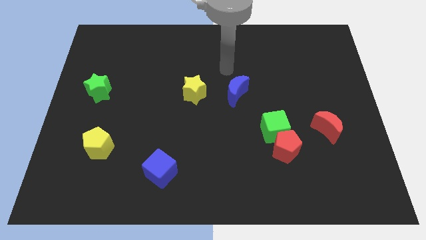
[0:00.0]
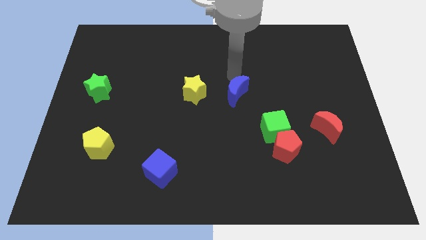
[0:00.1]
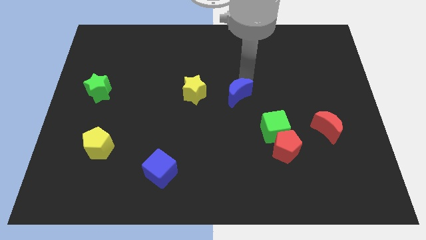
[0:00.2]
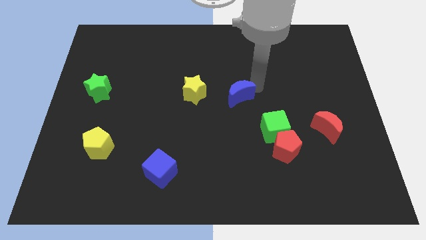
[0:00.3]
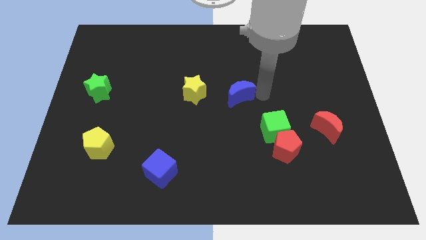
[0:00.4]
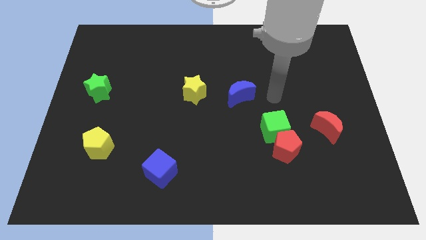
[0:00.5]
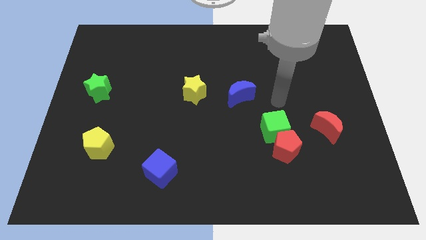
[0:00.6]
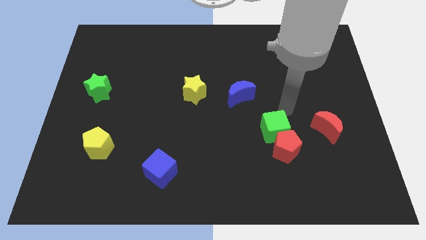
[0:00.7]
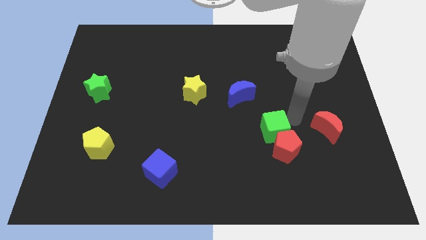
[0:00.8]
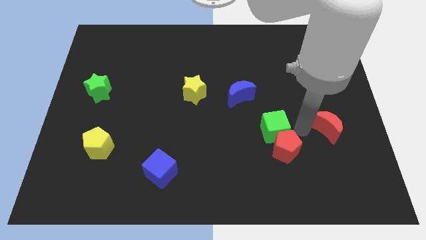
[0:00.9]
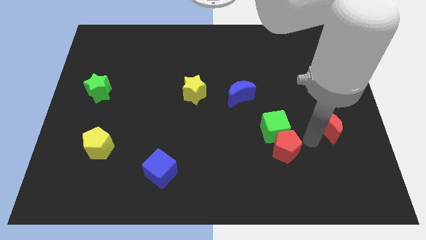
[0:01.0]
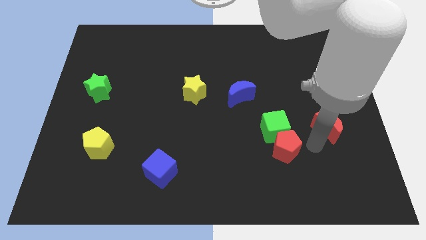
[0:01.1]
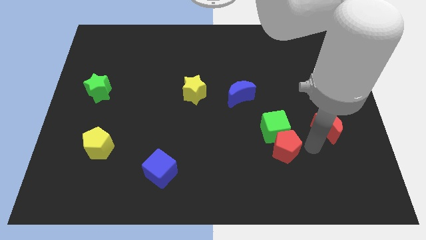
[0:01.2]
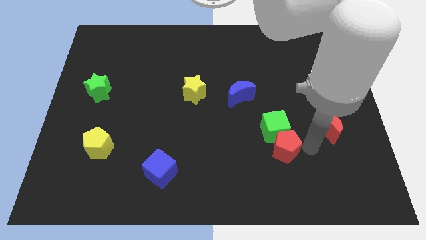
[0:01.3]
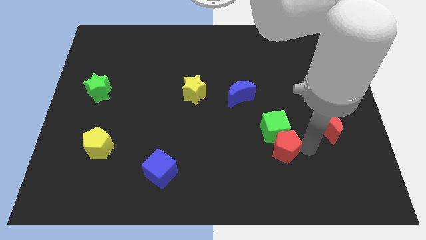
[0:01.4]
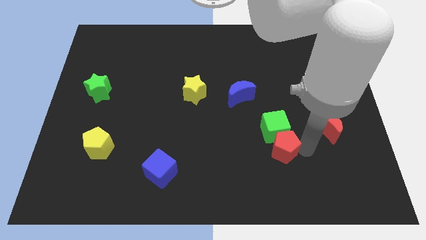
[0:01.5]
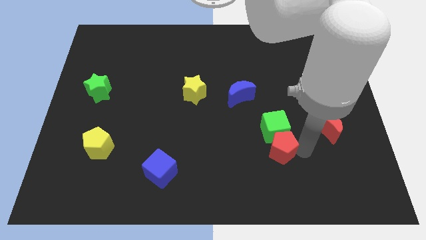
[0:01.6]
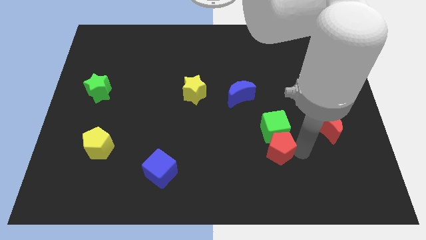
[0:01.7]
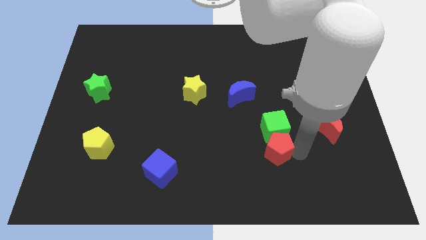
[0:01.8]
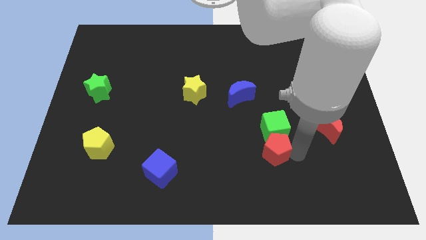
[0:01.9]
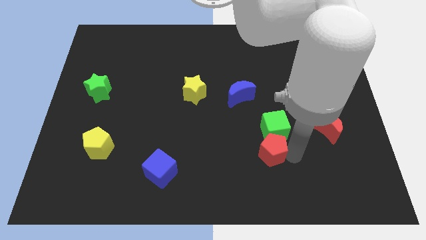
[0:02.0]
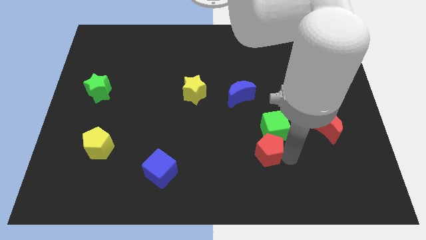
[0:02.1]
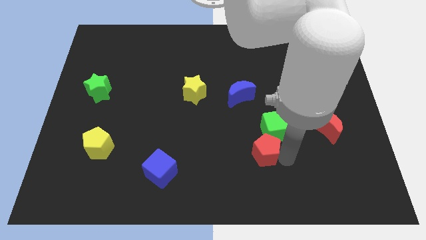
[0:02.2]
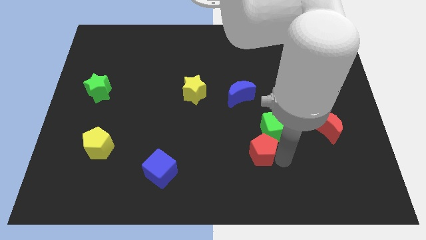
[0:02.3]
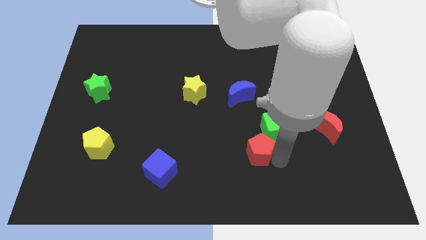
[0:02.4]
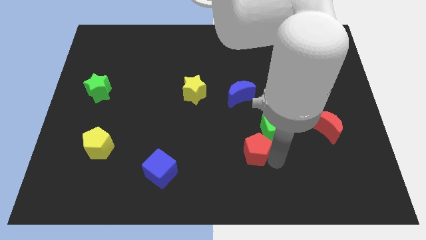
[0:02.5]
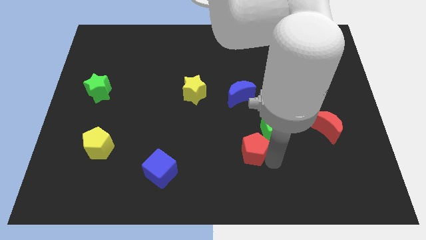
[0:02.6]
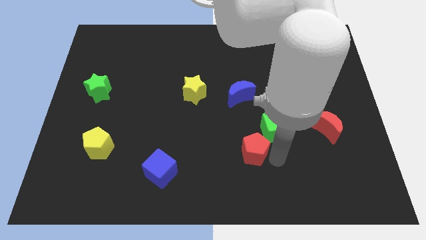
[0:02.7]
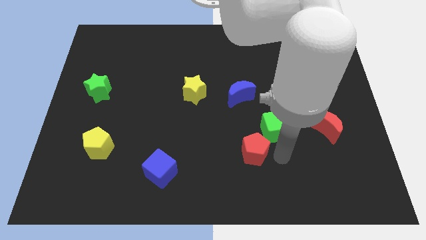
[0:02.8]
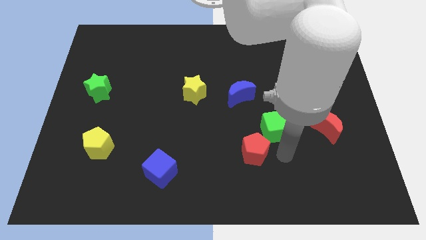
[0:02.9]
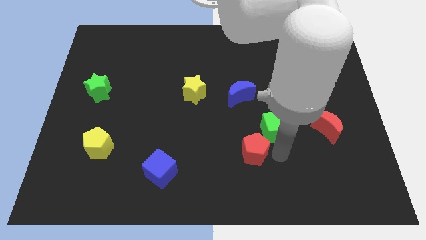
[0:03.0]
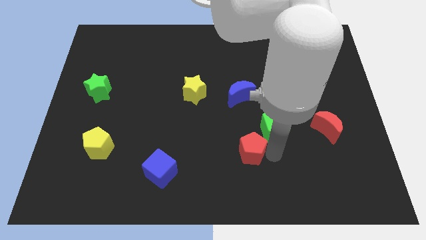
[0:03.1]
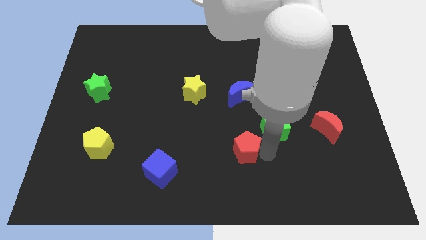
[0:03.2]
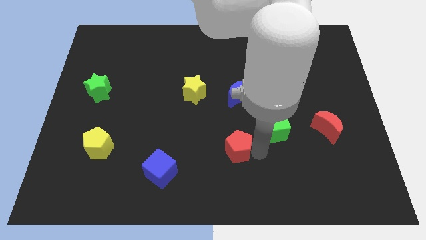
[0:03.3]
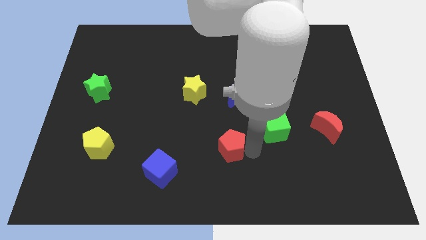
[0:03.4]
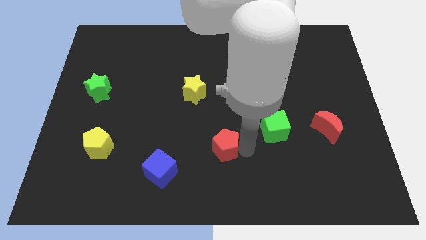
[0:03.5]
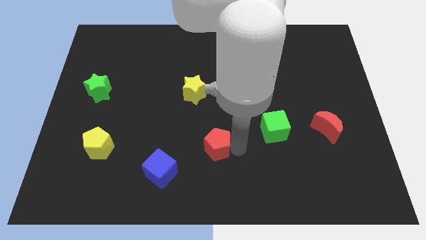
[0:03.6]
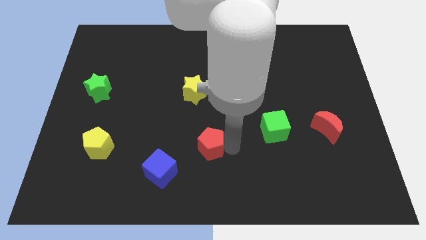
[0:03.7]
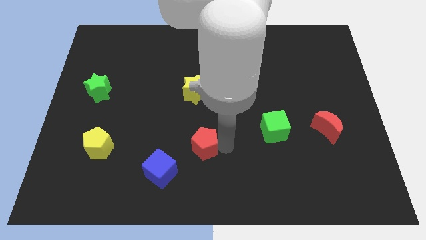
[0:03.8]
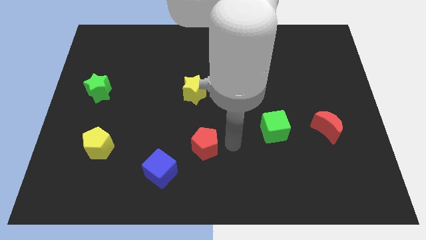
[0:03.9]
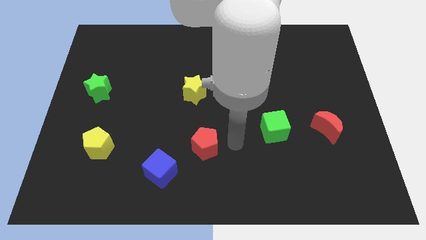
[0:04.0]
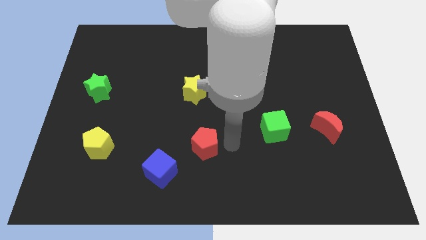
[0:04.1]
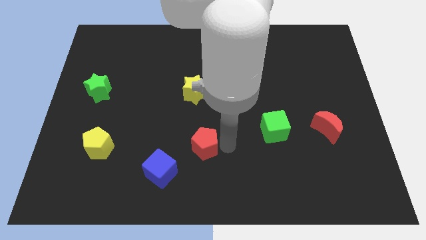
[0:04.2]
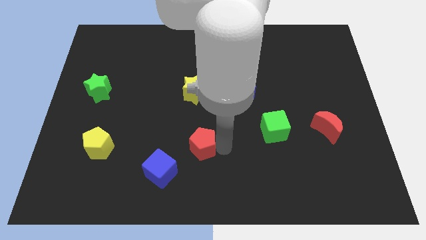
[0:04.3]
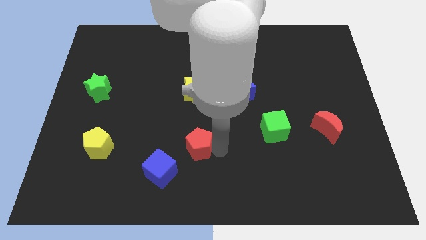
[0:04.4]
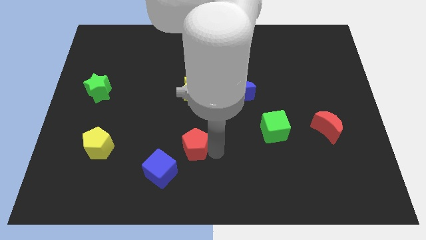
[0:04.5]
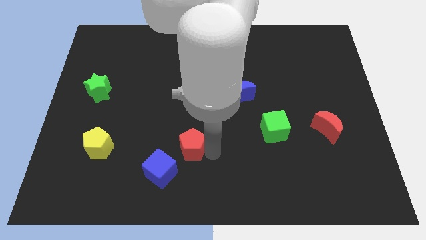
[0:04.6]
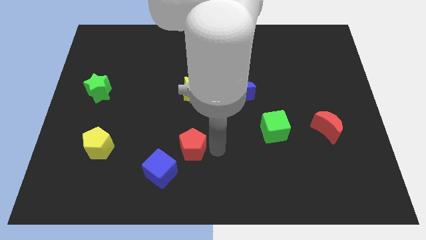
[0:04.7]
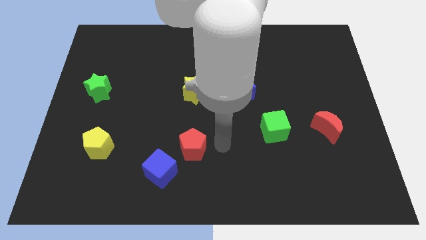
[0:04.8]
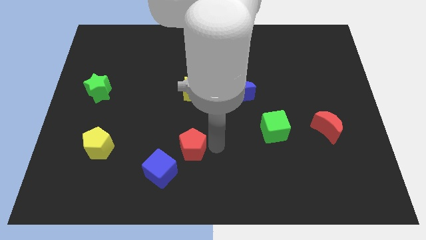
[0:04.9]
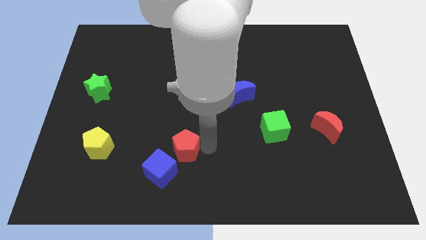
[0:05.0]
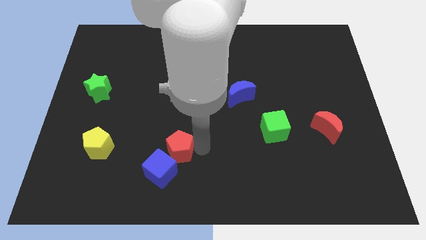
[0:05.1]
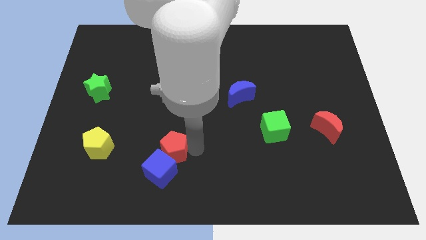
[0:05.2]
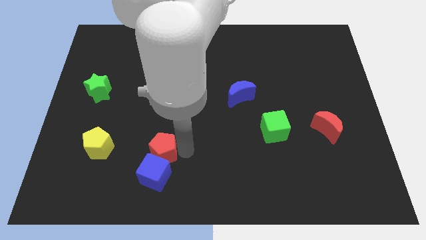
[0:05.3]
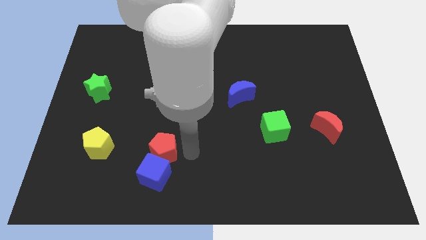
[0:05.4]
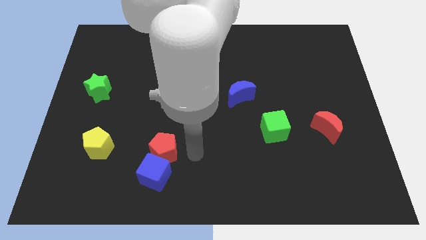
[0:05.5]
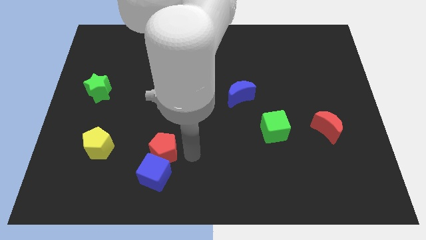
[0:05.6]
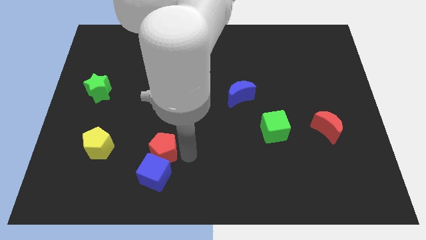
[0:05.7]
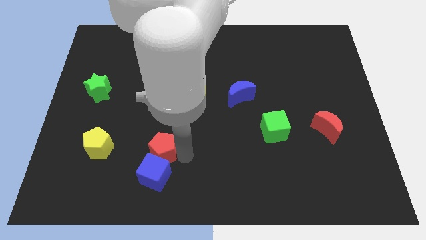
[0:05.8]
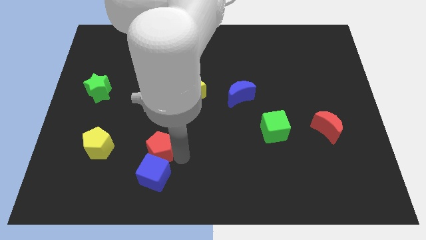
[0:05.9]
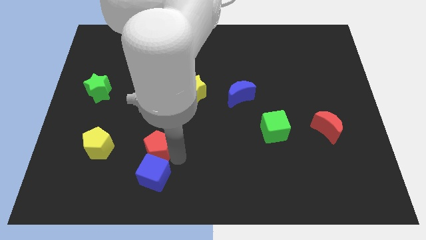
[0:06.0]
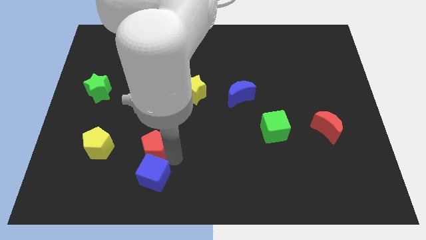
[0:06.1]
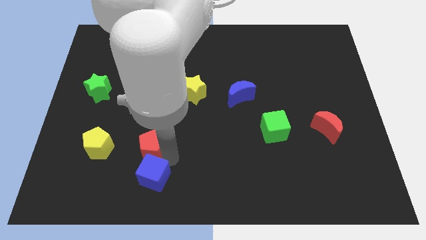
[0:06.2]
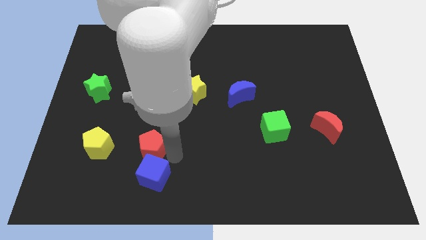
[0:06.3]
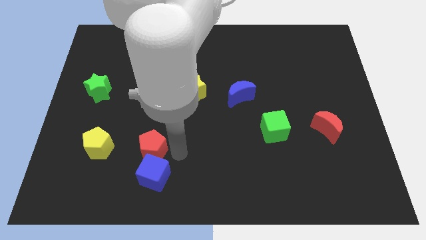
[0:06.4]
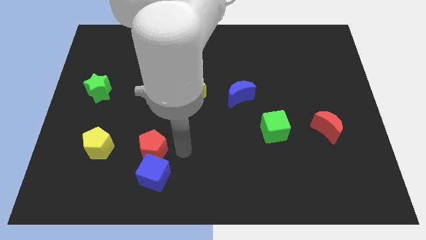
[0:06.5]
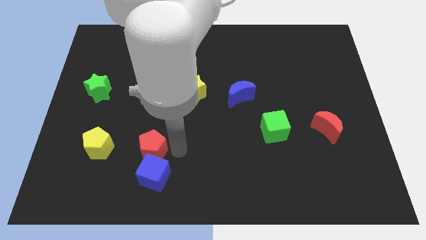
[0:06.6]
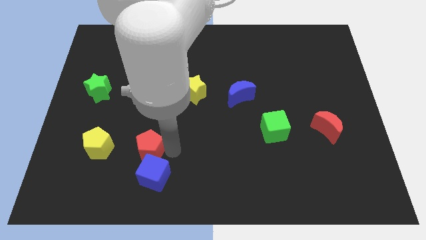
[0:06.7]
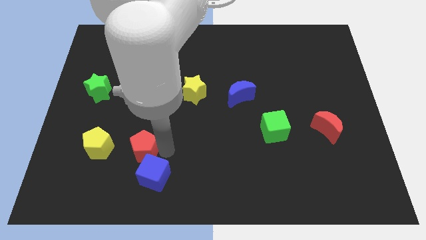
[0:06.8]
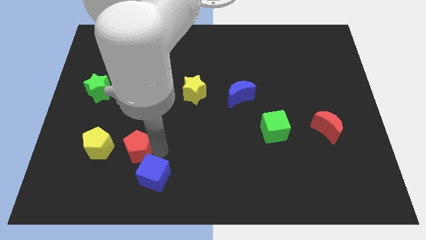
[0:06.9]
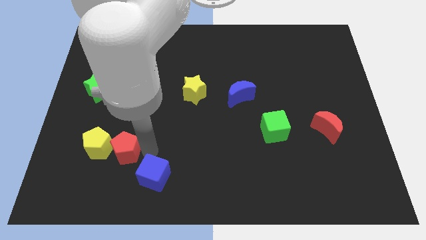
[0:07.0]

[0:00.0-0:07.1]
push the red pentagon close to the yellow pentagon
